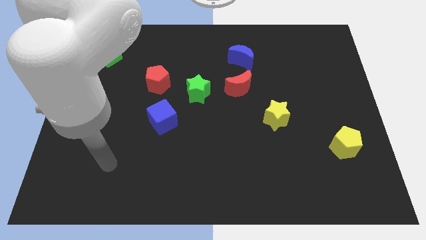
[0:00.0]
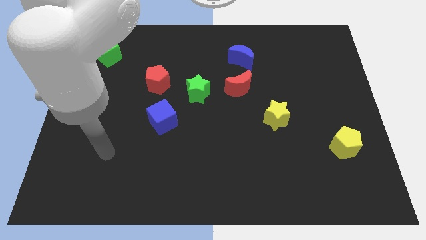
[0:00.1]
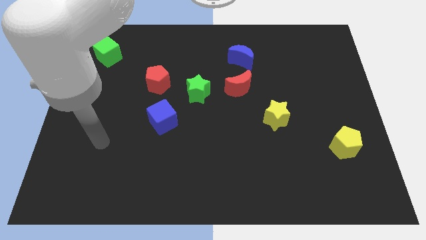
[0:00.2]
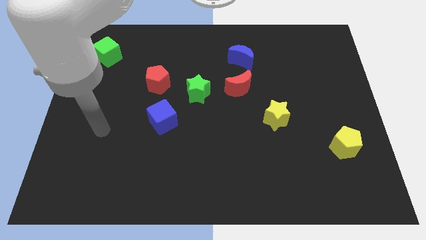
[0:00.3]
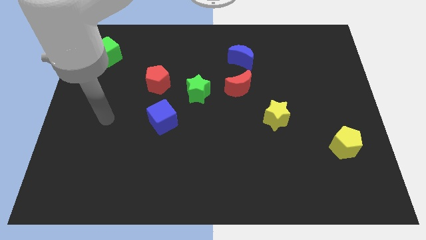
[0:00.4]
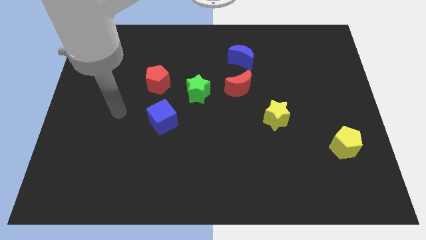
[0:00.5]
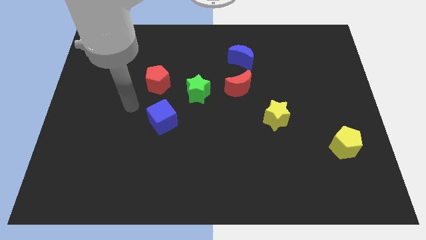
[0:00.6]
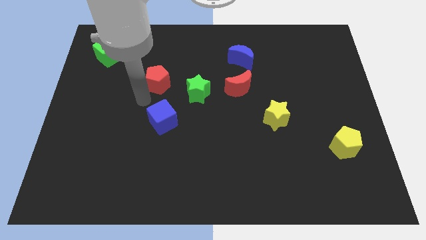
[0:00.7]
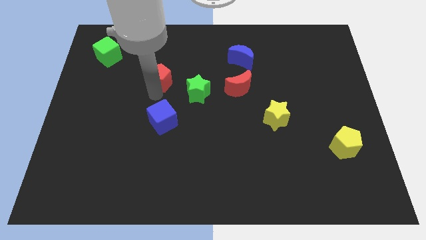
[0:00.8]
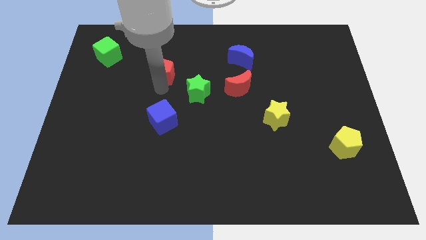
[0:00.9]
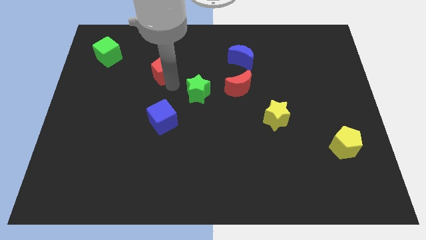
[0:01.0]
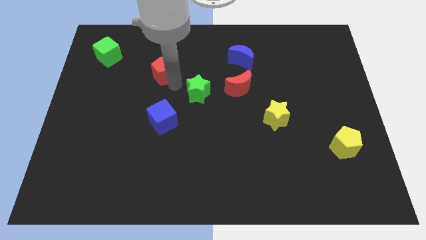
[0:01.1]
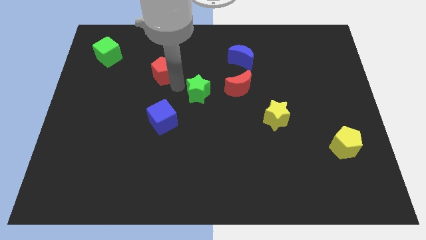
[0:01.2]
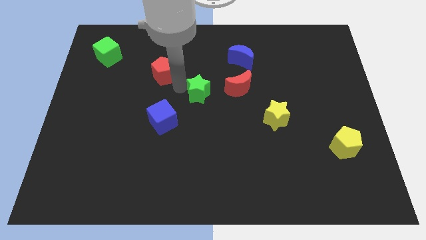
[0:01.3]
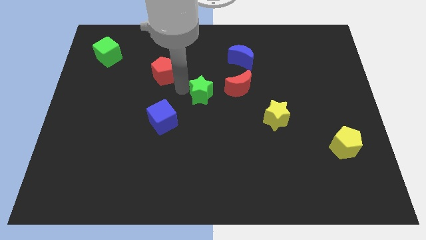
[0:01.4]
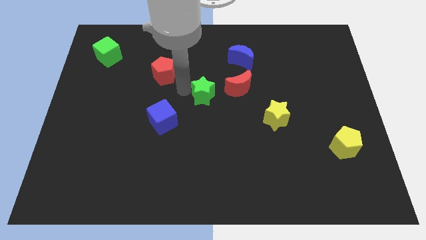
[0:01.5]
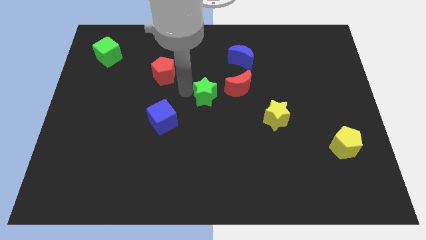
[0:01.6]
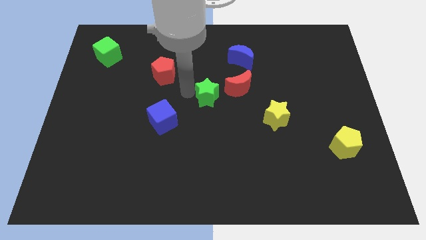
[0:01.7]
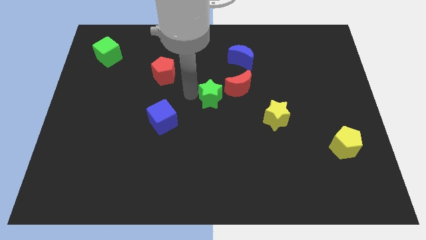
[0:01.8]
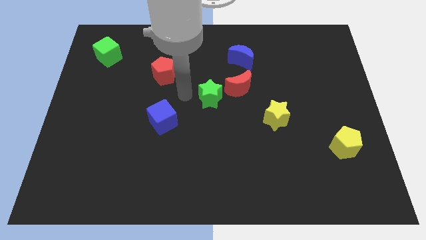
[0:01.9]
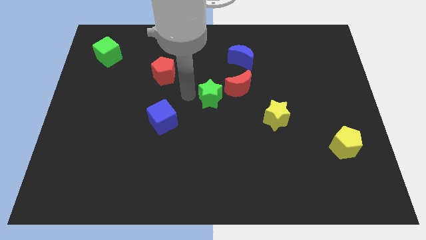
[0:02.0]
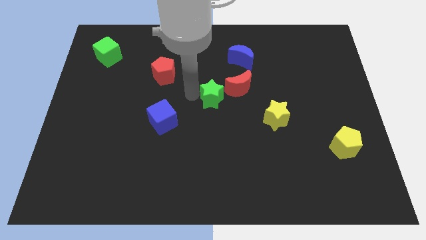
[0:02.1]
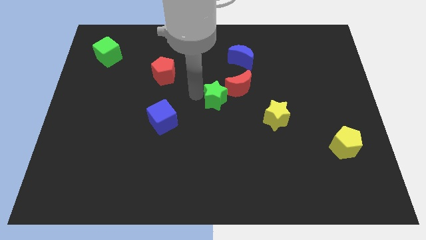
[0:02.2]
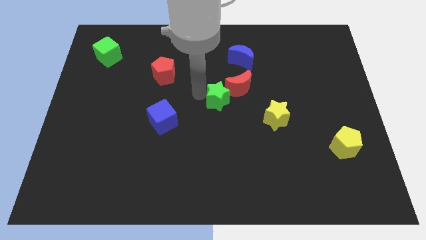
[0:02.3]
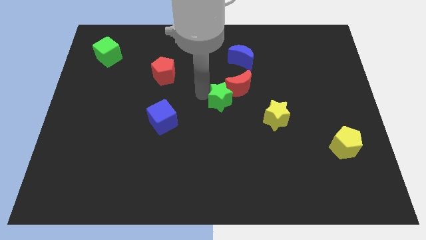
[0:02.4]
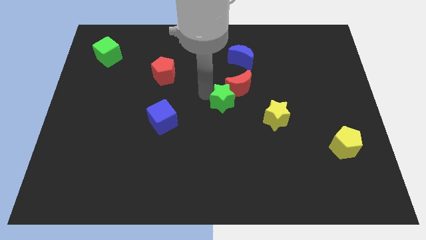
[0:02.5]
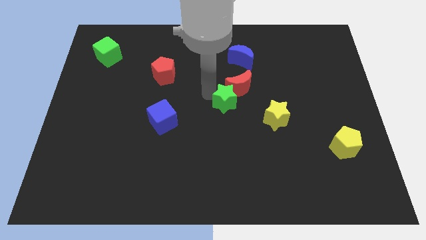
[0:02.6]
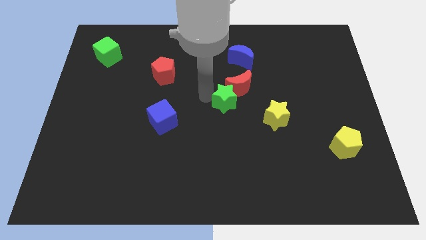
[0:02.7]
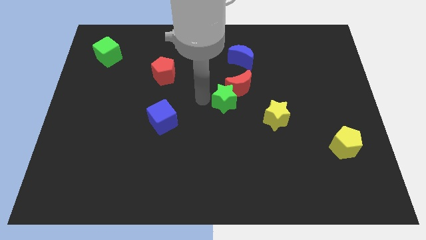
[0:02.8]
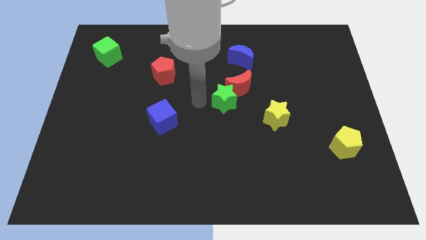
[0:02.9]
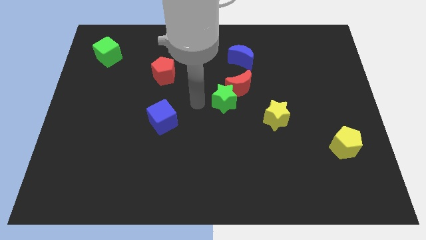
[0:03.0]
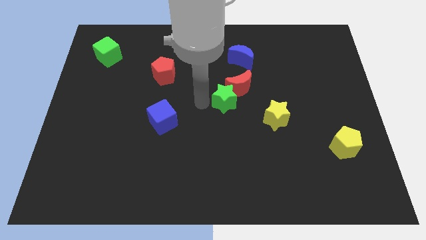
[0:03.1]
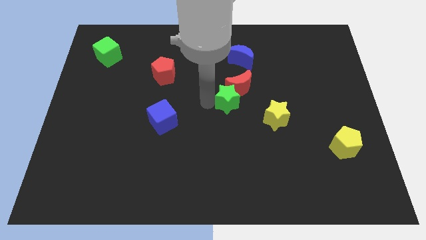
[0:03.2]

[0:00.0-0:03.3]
slightly move the green star right

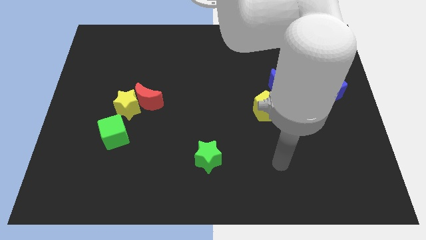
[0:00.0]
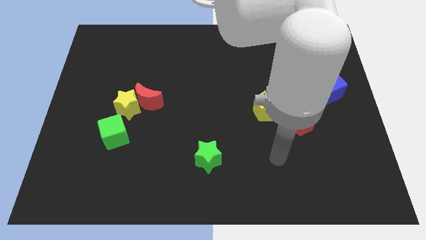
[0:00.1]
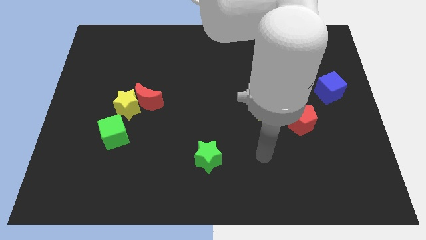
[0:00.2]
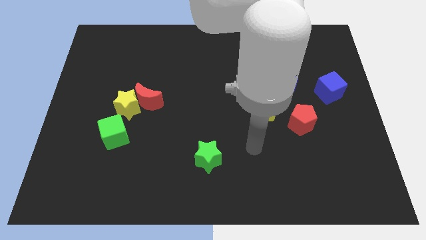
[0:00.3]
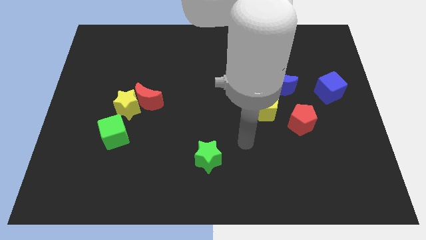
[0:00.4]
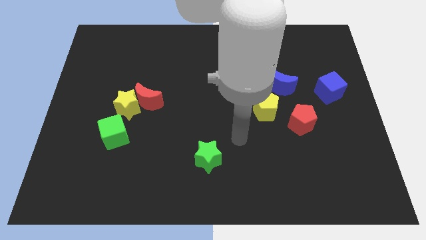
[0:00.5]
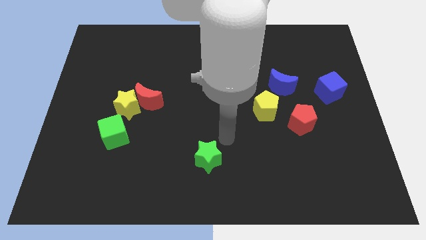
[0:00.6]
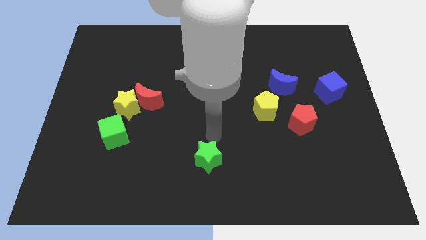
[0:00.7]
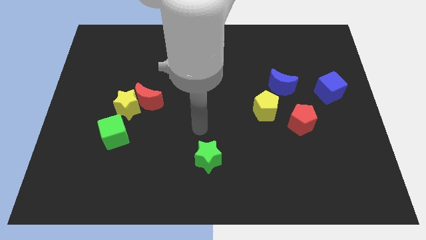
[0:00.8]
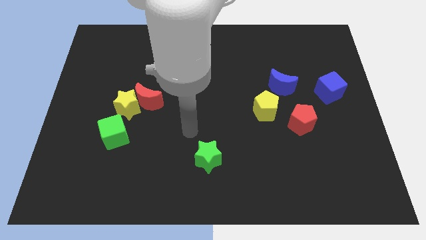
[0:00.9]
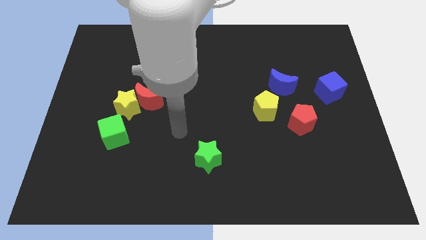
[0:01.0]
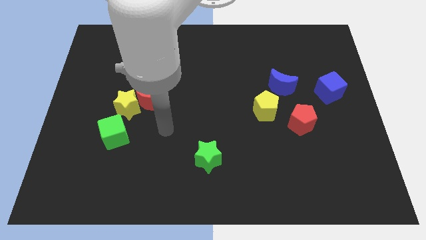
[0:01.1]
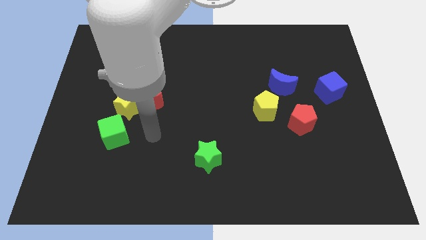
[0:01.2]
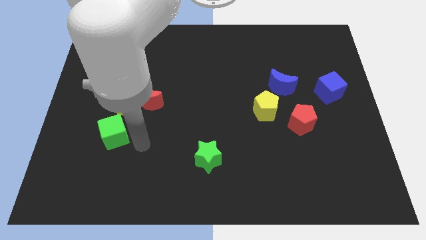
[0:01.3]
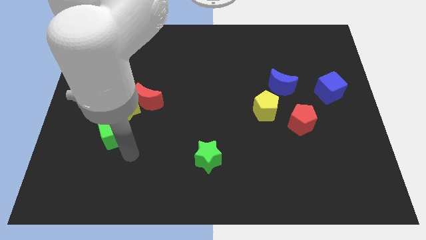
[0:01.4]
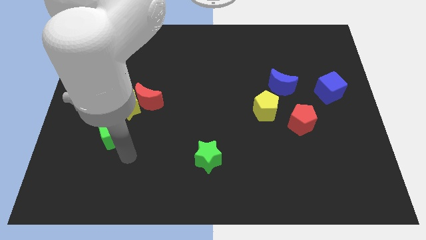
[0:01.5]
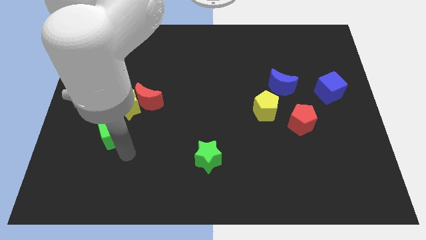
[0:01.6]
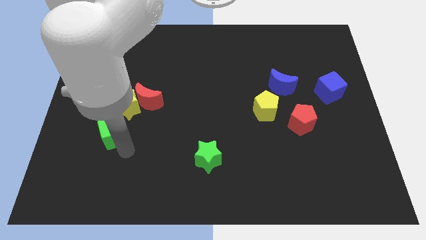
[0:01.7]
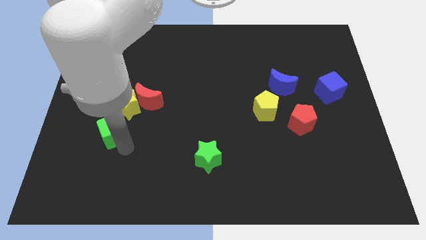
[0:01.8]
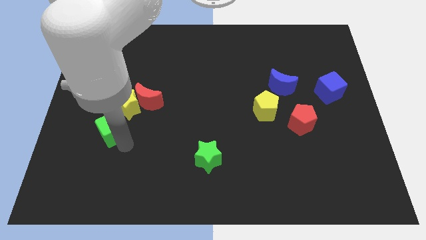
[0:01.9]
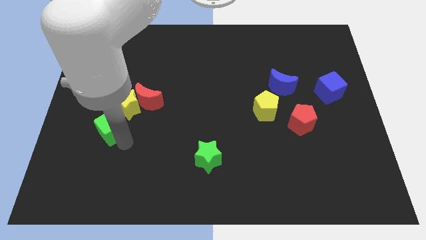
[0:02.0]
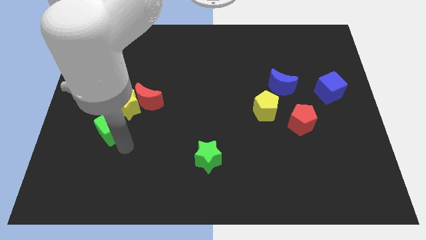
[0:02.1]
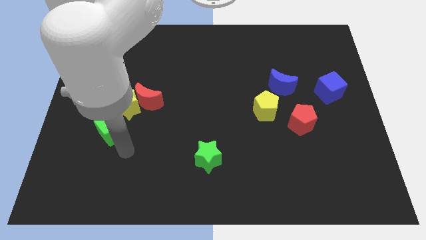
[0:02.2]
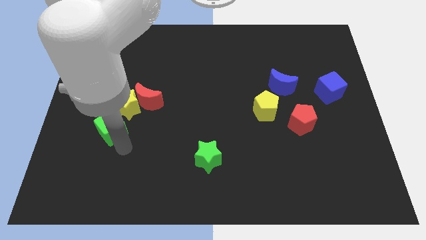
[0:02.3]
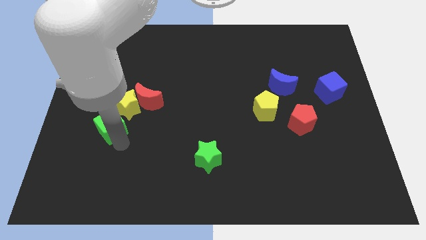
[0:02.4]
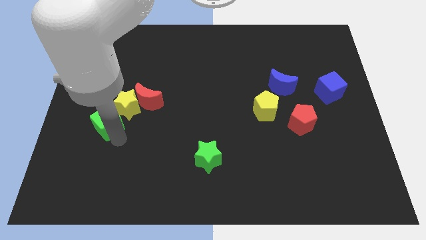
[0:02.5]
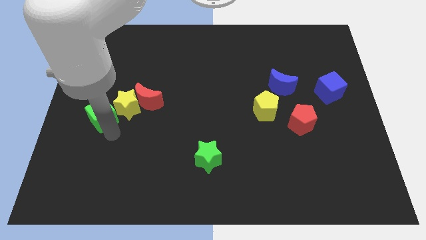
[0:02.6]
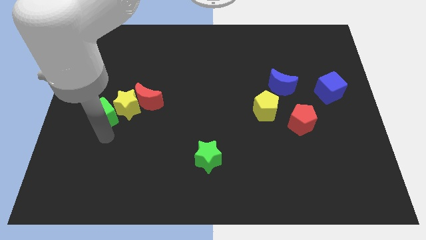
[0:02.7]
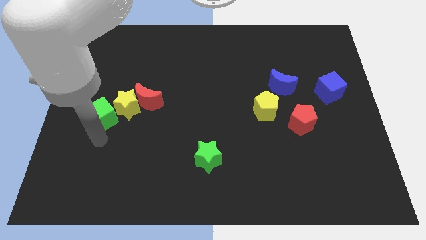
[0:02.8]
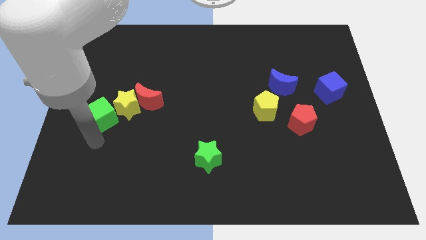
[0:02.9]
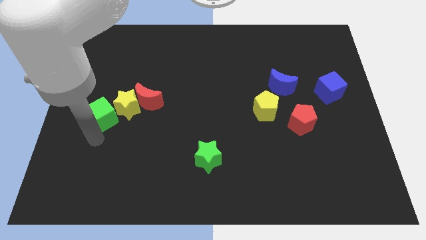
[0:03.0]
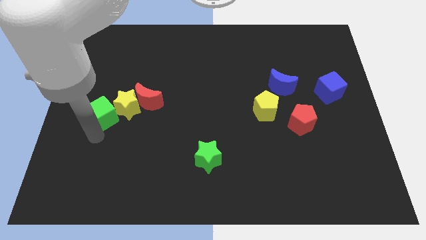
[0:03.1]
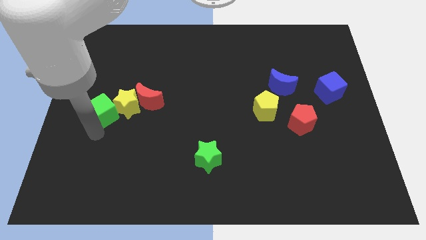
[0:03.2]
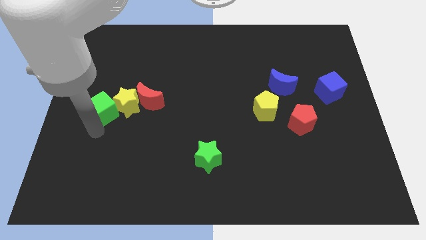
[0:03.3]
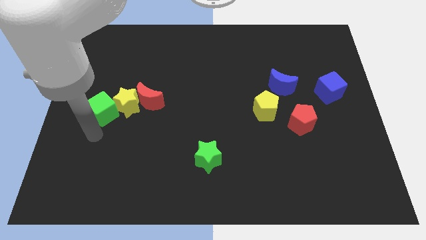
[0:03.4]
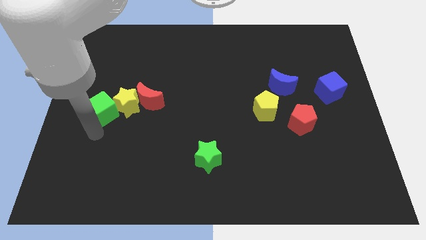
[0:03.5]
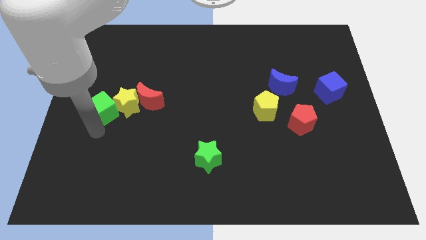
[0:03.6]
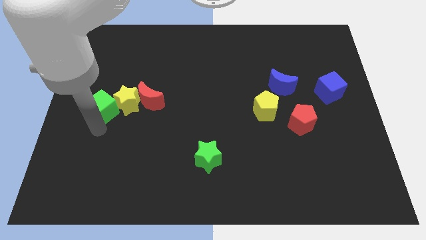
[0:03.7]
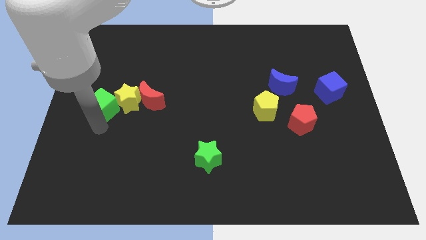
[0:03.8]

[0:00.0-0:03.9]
push the green cube upwards a little

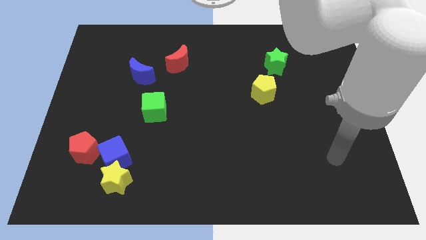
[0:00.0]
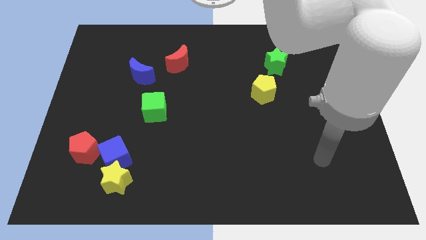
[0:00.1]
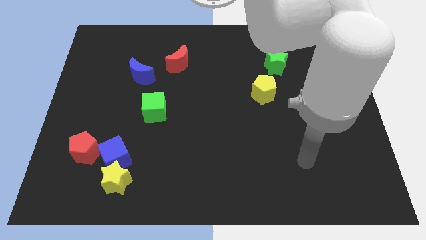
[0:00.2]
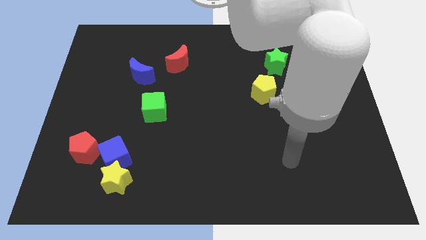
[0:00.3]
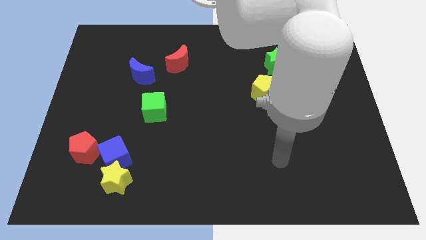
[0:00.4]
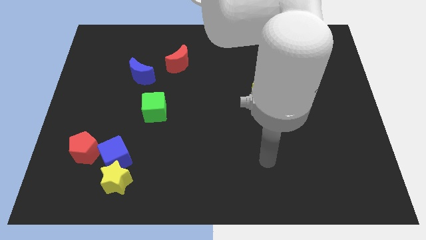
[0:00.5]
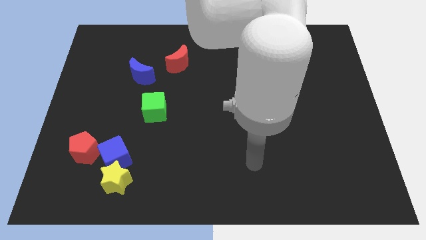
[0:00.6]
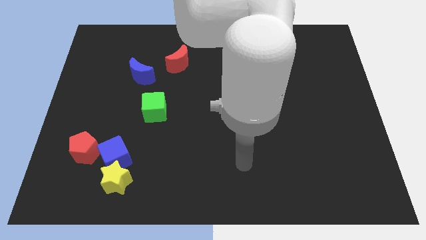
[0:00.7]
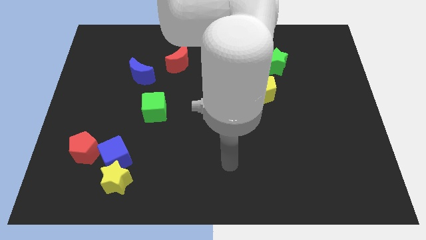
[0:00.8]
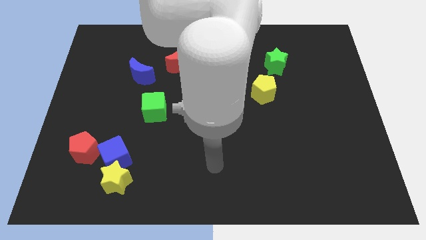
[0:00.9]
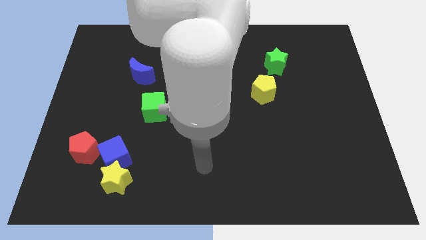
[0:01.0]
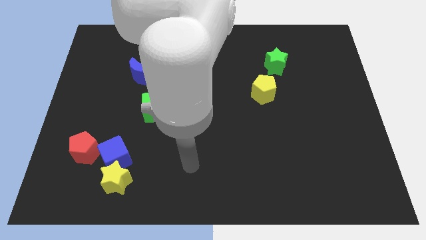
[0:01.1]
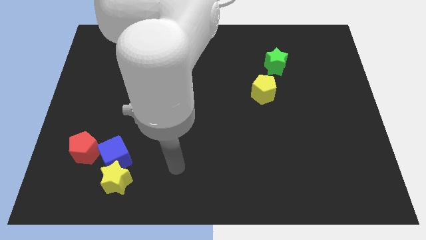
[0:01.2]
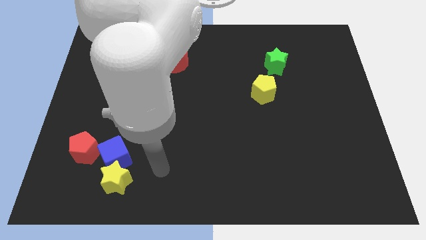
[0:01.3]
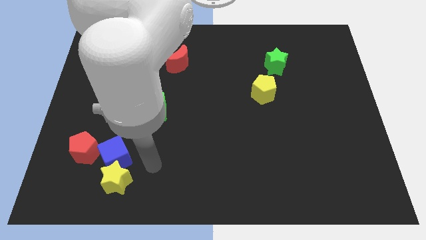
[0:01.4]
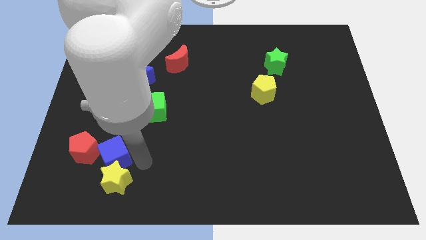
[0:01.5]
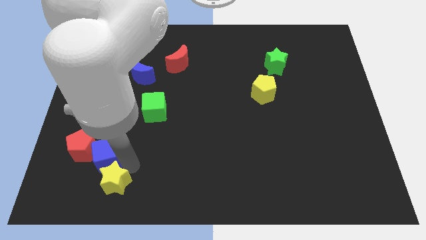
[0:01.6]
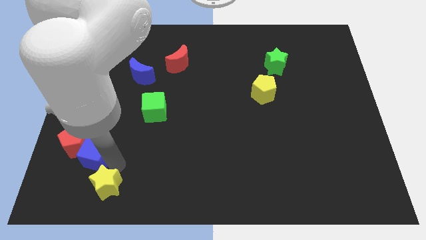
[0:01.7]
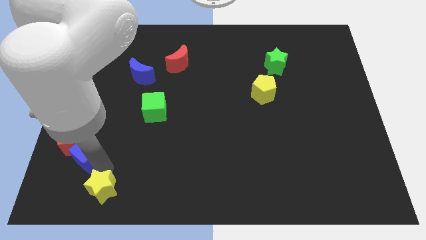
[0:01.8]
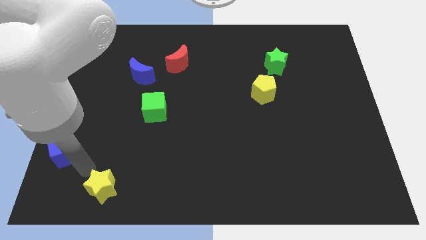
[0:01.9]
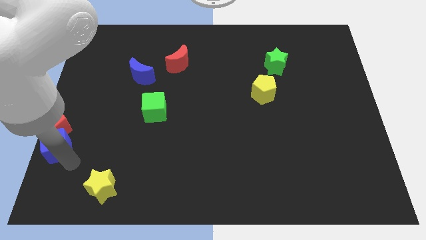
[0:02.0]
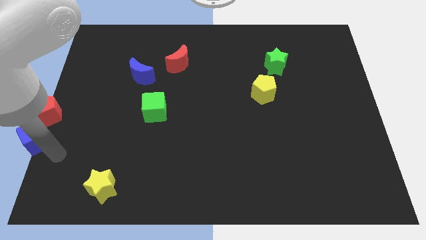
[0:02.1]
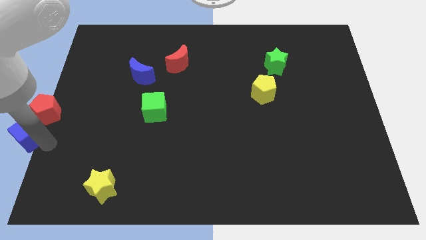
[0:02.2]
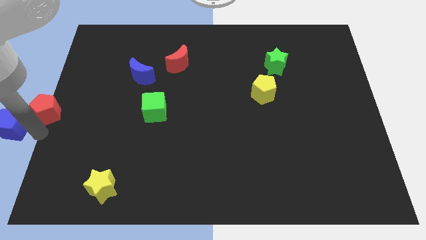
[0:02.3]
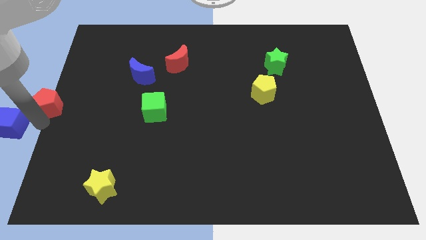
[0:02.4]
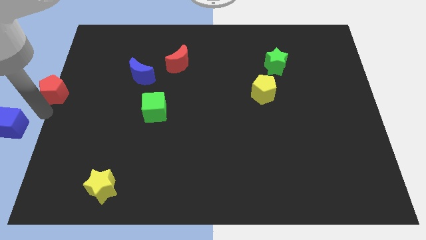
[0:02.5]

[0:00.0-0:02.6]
push the red pentagon a bit up
